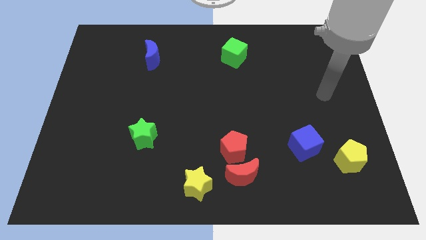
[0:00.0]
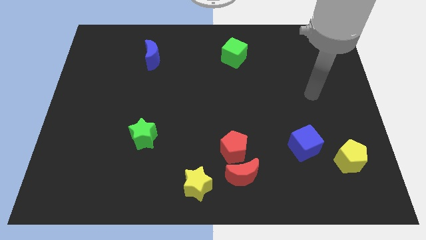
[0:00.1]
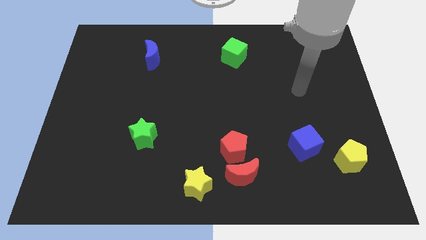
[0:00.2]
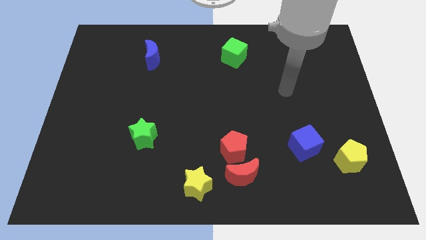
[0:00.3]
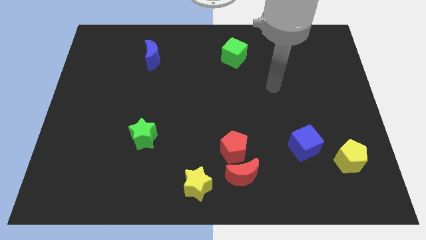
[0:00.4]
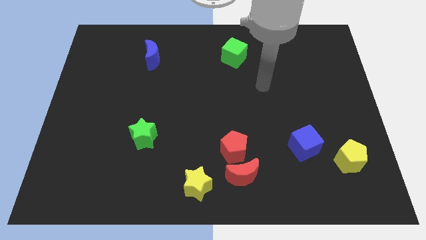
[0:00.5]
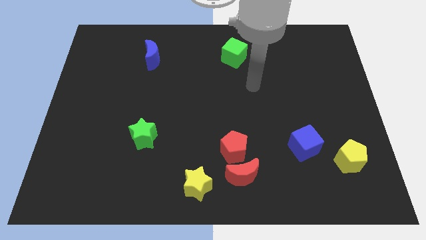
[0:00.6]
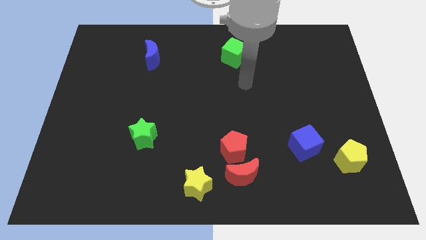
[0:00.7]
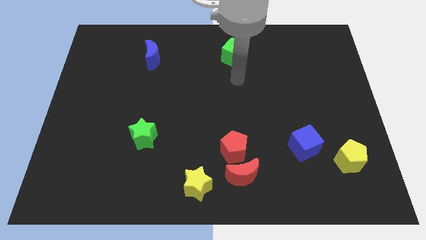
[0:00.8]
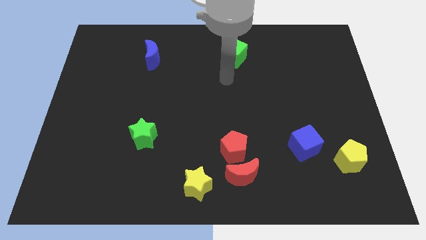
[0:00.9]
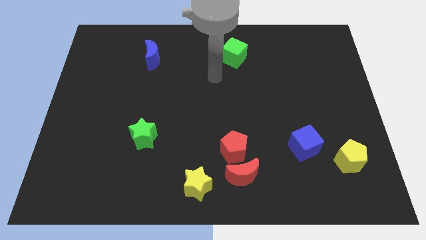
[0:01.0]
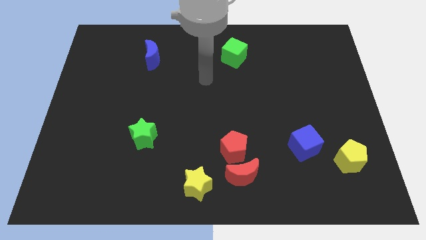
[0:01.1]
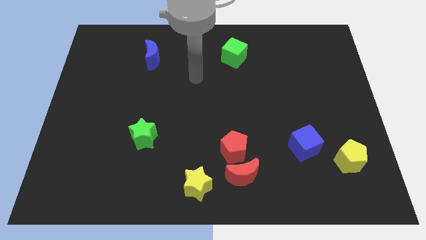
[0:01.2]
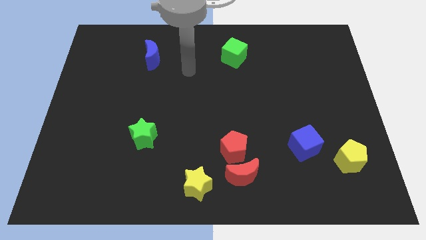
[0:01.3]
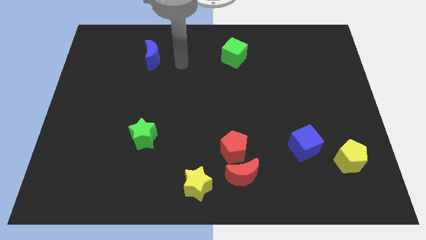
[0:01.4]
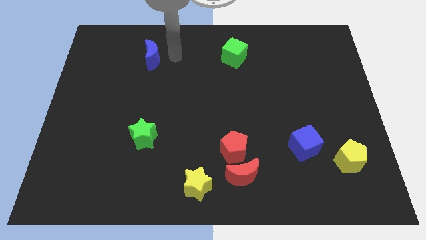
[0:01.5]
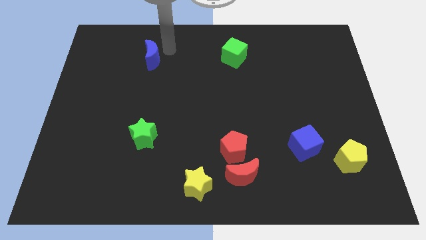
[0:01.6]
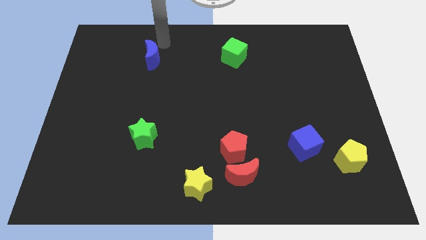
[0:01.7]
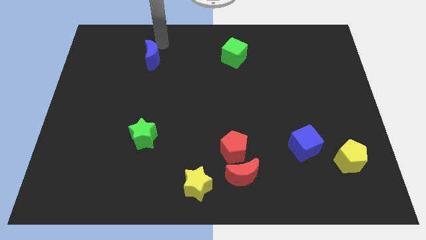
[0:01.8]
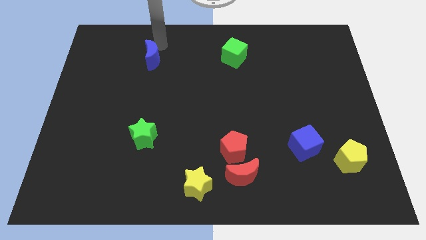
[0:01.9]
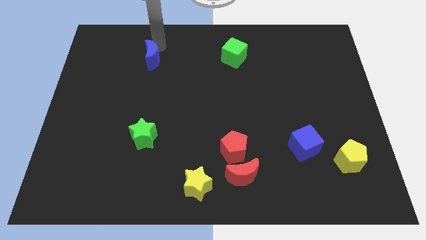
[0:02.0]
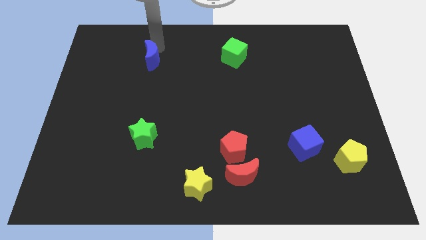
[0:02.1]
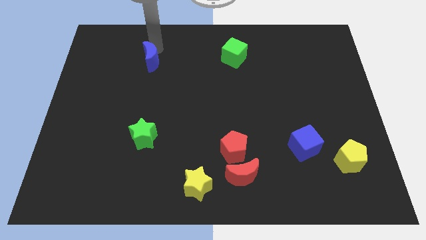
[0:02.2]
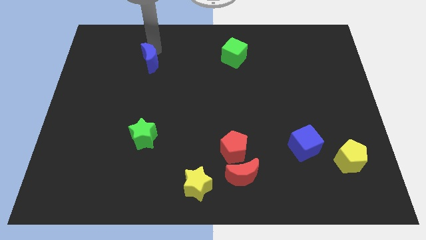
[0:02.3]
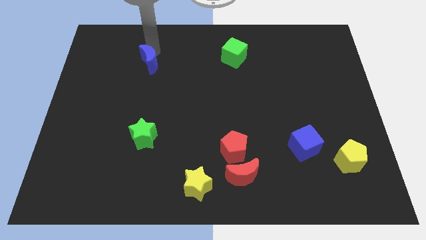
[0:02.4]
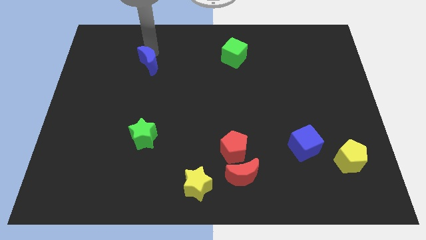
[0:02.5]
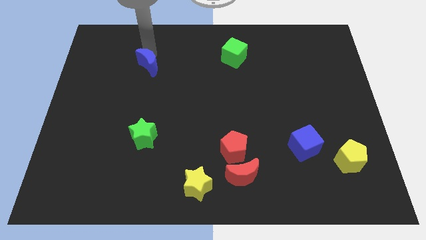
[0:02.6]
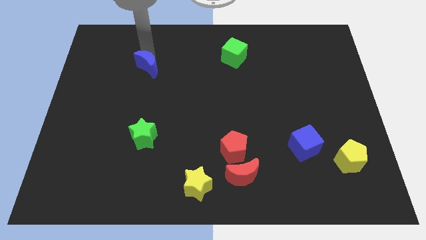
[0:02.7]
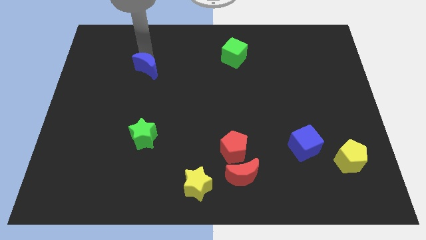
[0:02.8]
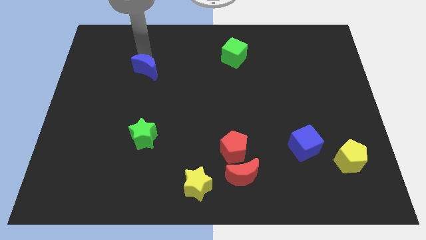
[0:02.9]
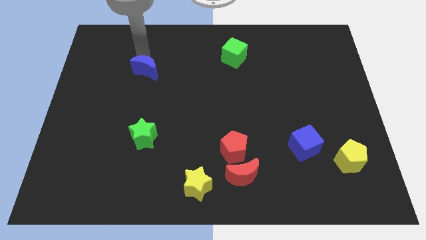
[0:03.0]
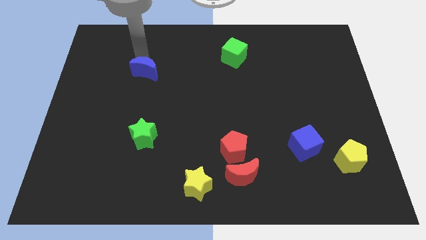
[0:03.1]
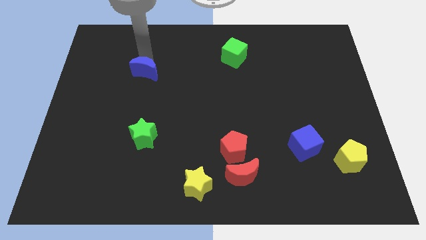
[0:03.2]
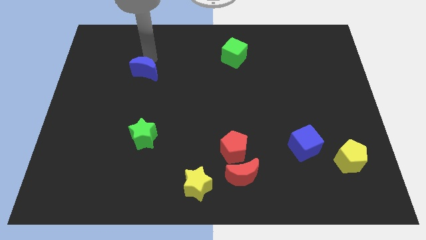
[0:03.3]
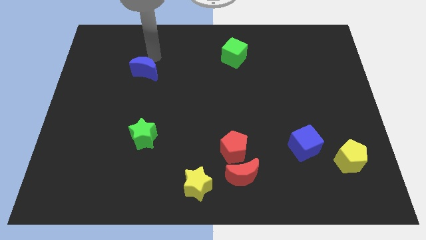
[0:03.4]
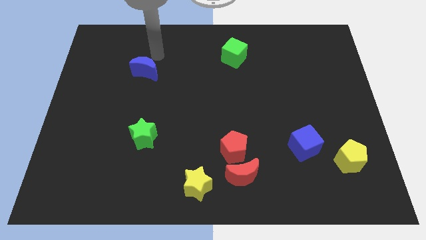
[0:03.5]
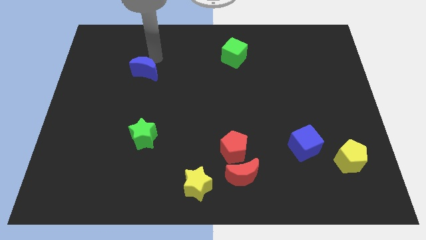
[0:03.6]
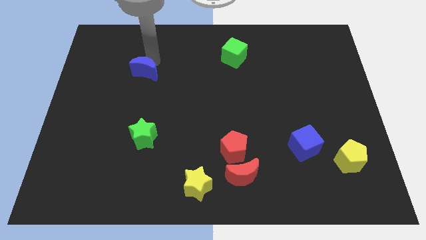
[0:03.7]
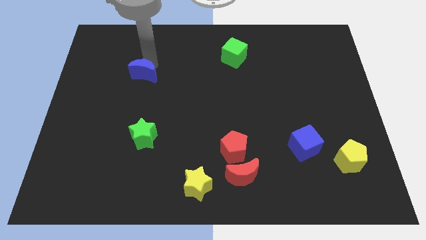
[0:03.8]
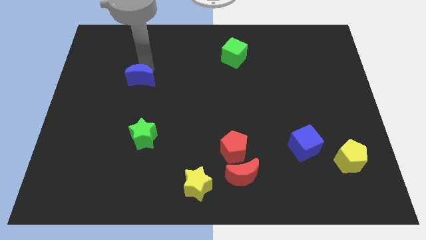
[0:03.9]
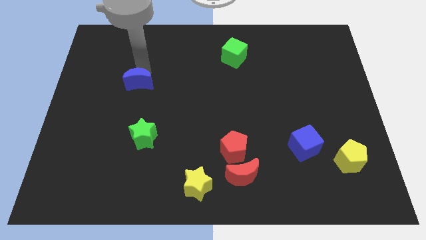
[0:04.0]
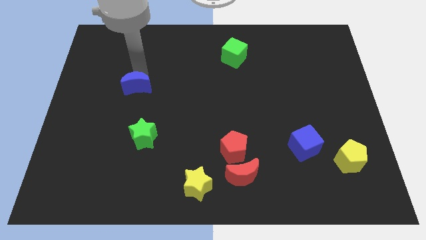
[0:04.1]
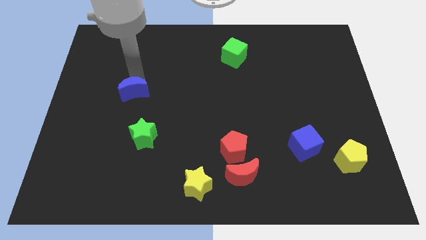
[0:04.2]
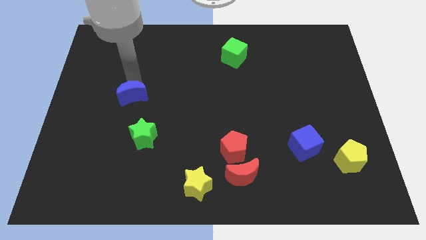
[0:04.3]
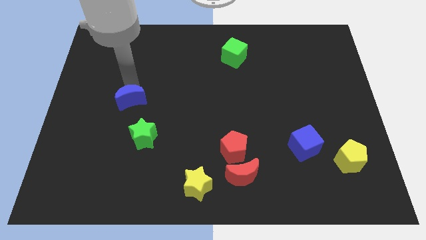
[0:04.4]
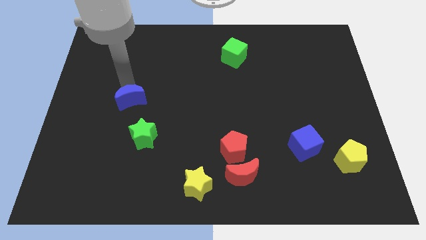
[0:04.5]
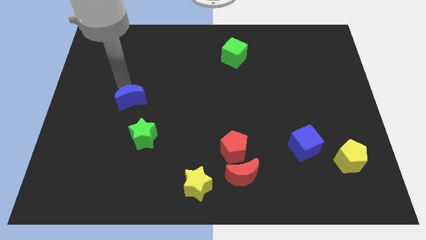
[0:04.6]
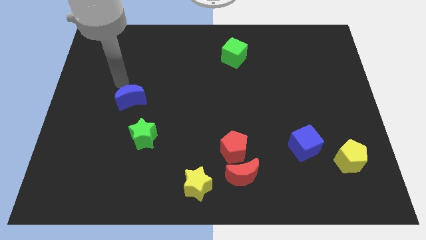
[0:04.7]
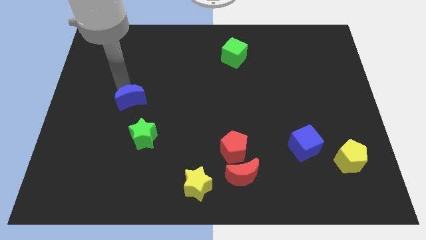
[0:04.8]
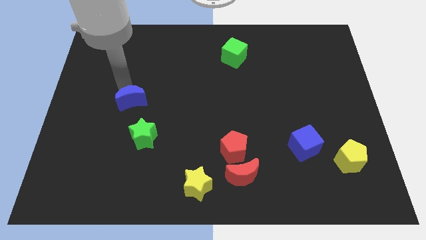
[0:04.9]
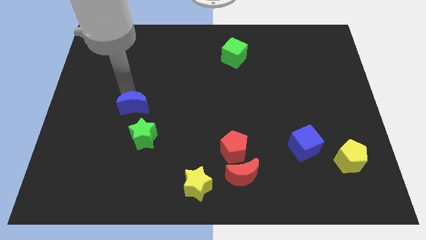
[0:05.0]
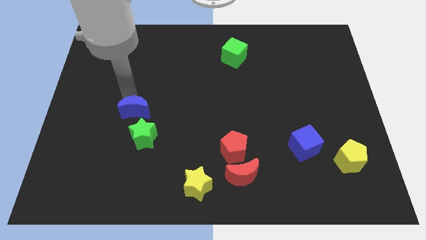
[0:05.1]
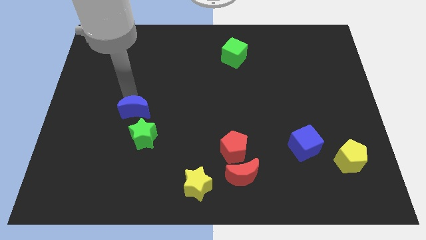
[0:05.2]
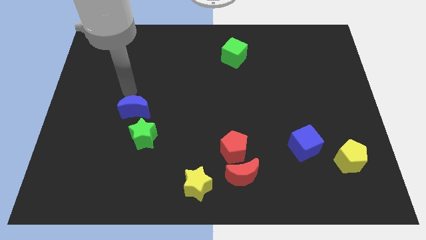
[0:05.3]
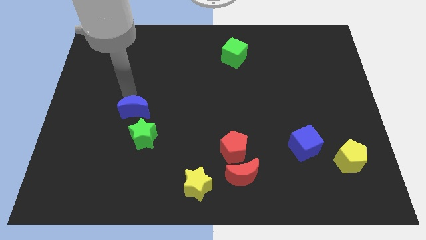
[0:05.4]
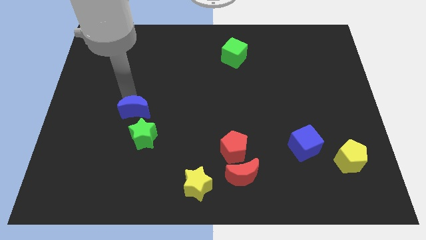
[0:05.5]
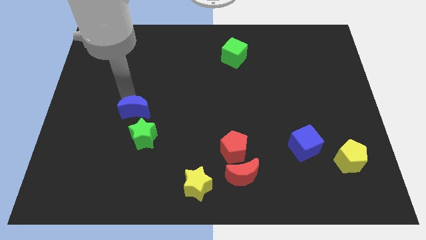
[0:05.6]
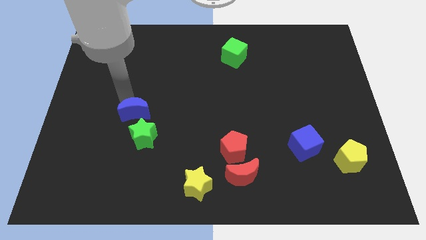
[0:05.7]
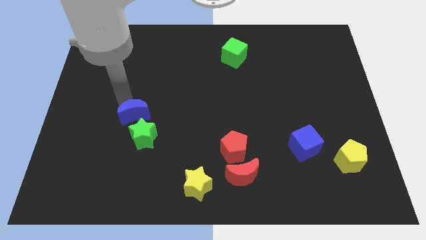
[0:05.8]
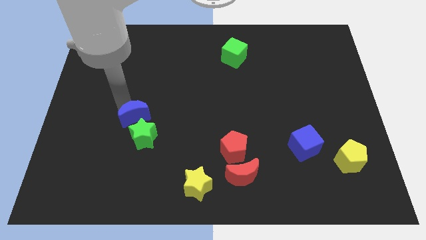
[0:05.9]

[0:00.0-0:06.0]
slide the blue moon towards the green star

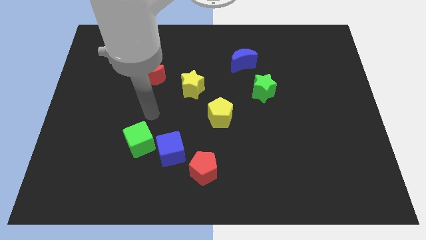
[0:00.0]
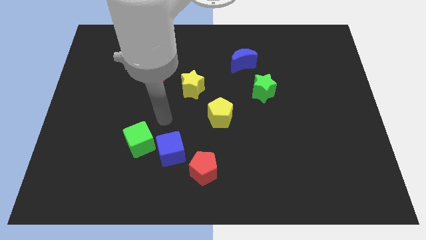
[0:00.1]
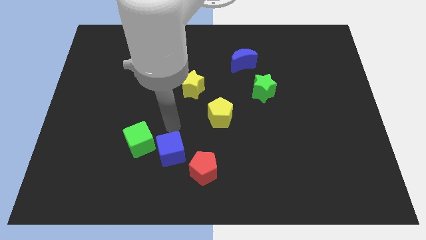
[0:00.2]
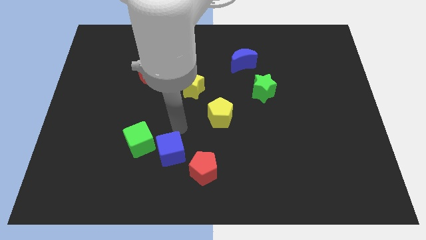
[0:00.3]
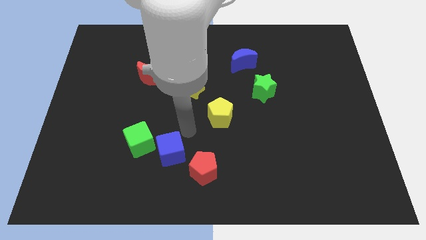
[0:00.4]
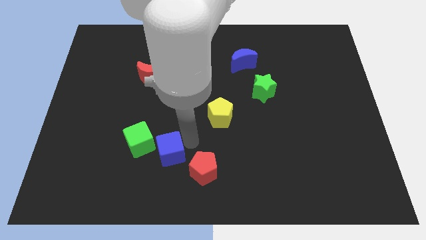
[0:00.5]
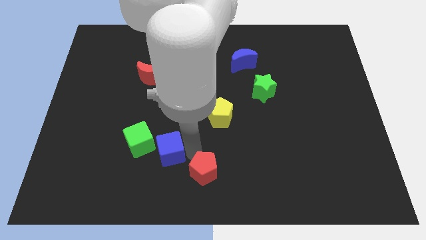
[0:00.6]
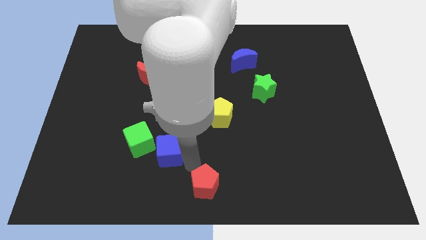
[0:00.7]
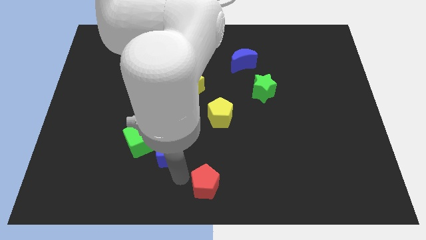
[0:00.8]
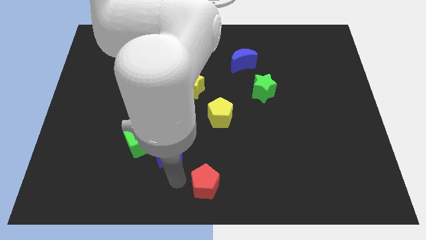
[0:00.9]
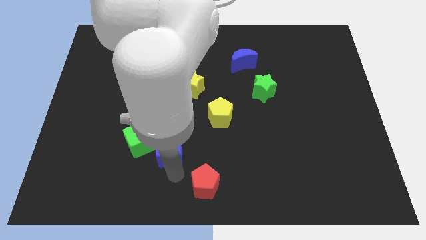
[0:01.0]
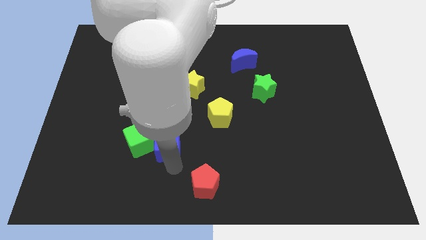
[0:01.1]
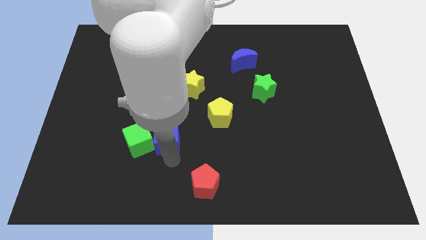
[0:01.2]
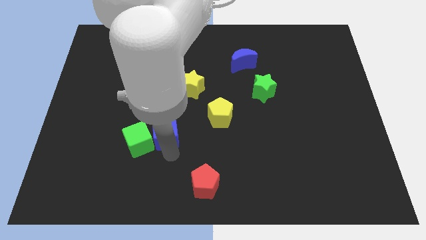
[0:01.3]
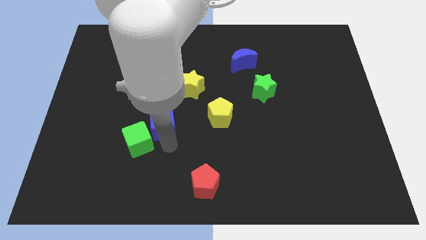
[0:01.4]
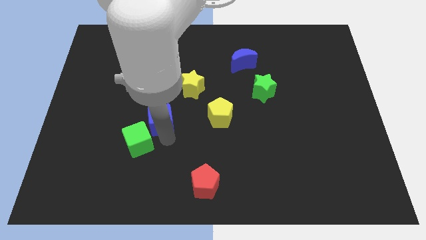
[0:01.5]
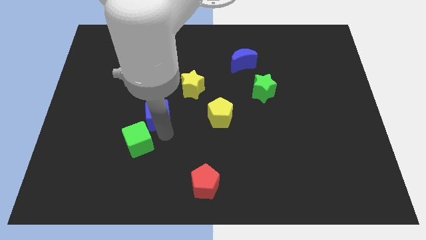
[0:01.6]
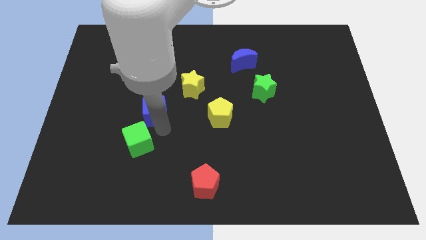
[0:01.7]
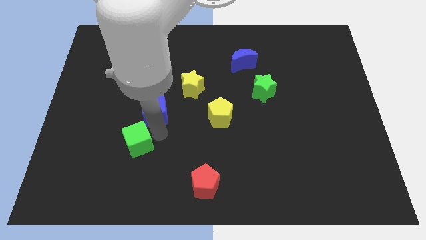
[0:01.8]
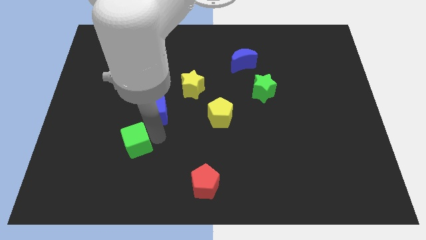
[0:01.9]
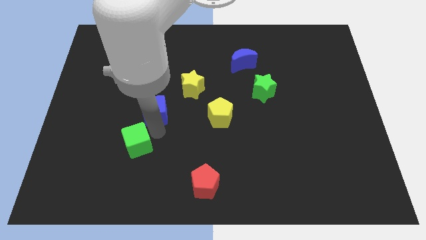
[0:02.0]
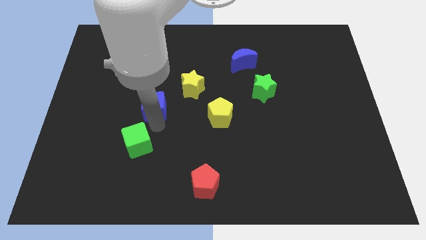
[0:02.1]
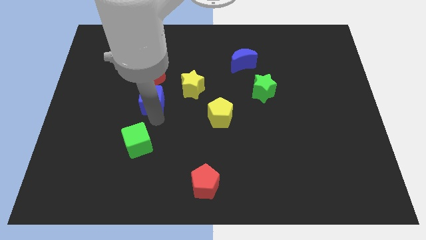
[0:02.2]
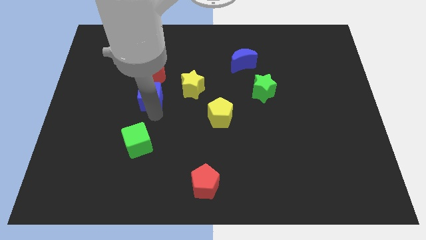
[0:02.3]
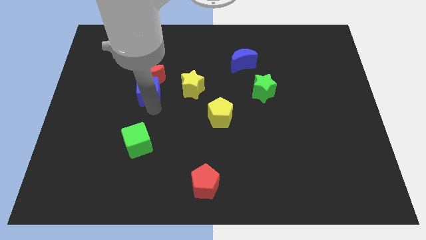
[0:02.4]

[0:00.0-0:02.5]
put the blue cube next to the red moon
